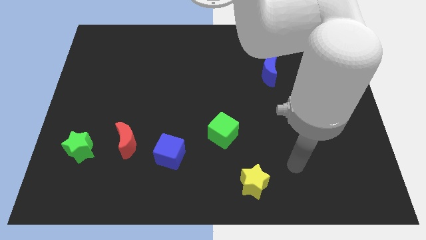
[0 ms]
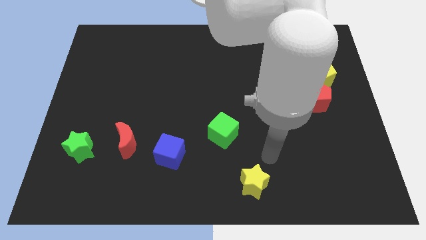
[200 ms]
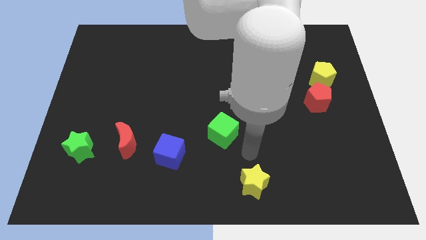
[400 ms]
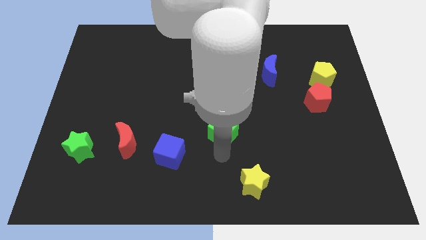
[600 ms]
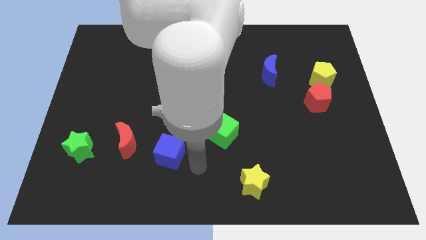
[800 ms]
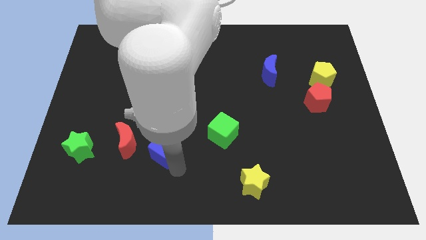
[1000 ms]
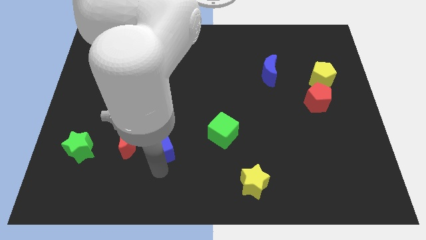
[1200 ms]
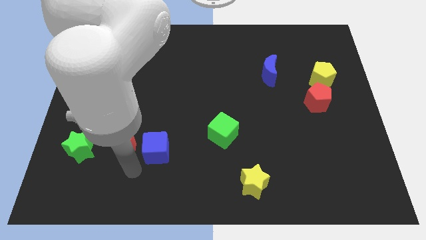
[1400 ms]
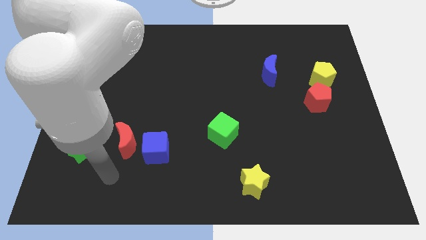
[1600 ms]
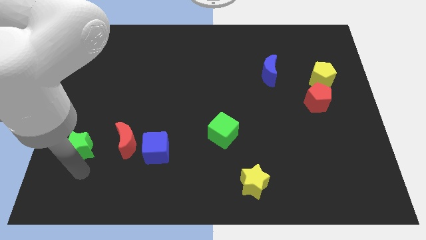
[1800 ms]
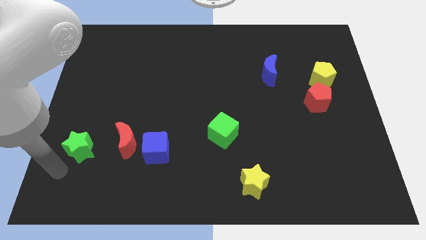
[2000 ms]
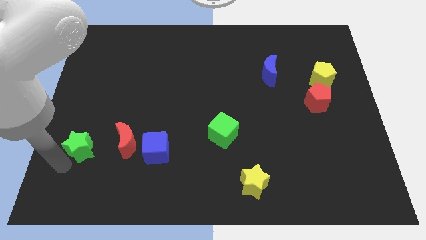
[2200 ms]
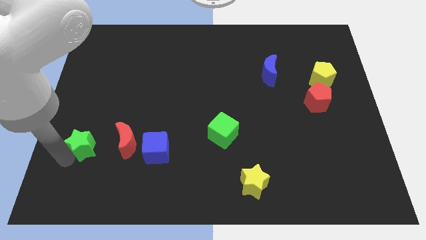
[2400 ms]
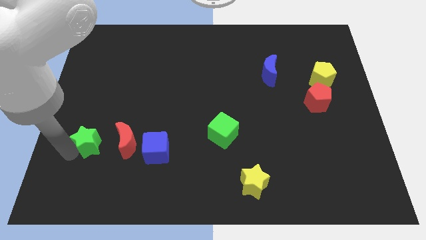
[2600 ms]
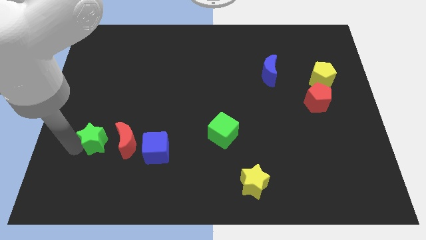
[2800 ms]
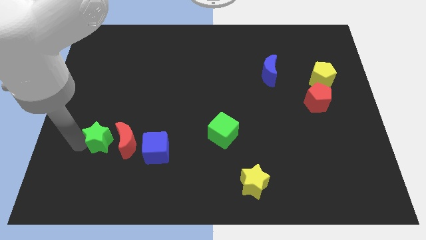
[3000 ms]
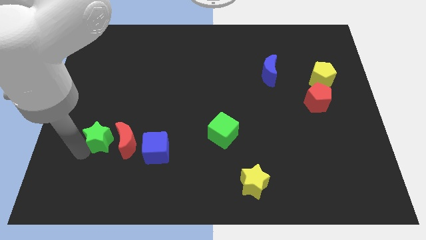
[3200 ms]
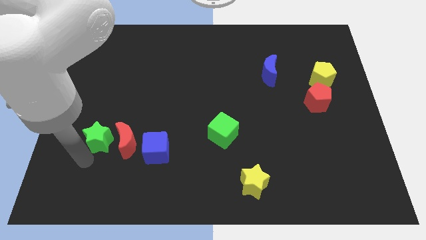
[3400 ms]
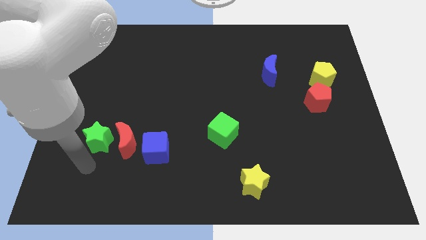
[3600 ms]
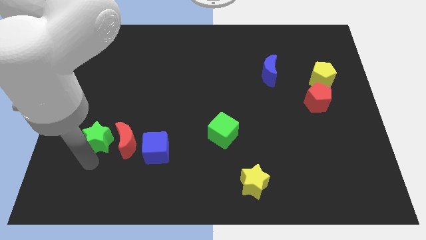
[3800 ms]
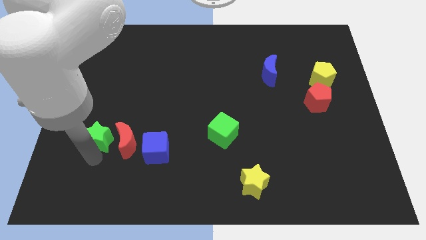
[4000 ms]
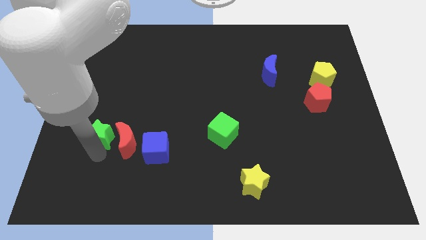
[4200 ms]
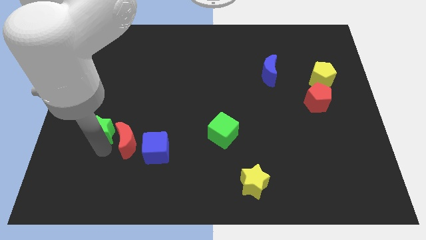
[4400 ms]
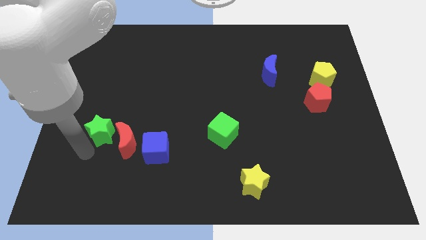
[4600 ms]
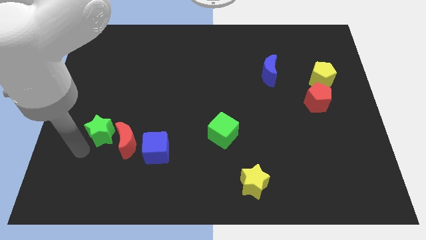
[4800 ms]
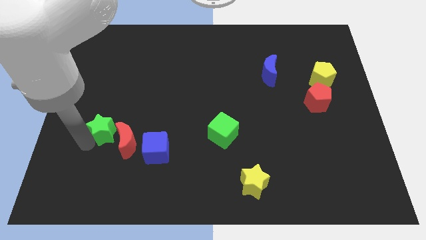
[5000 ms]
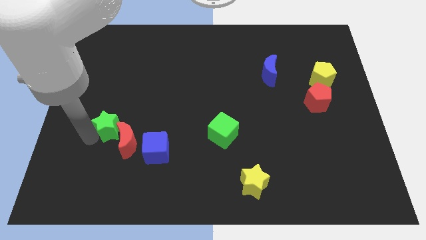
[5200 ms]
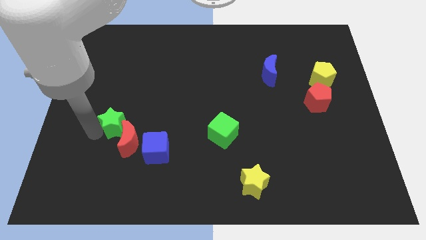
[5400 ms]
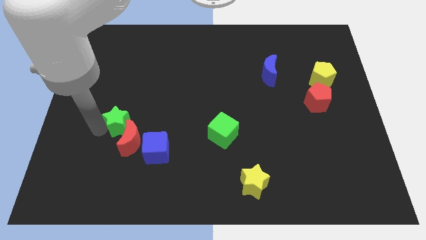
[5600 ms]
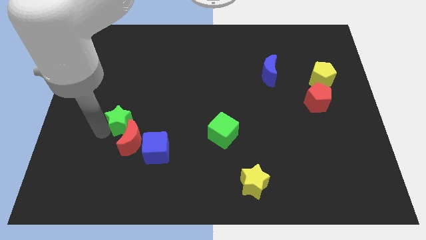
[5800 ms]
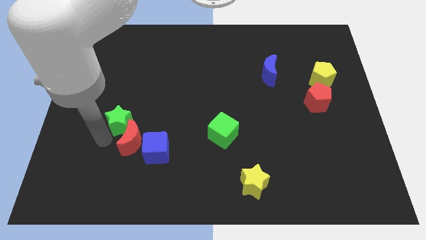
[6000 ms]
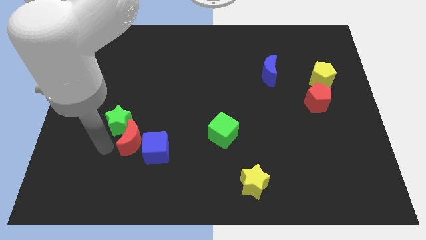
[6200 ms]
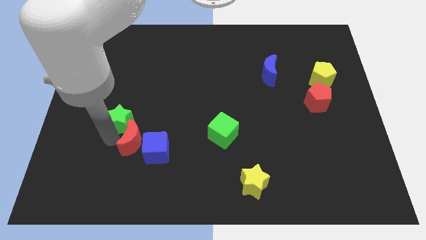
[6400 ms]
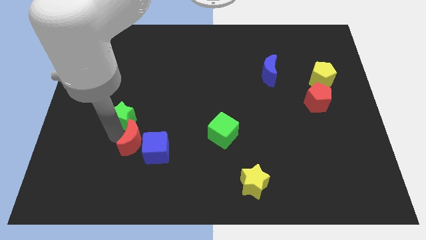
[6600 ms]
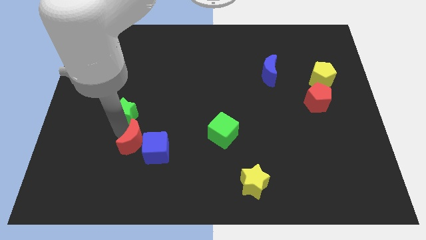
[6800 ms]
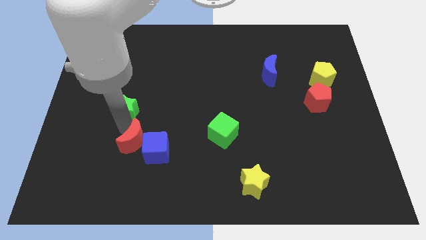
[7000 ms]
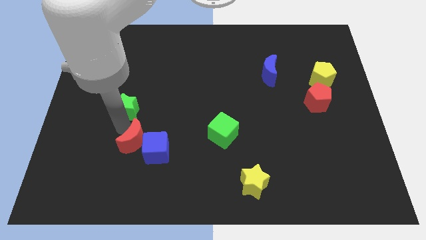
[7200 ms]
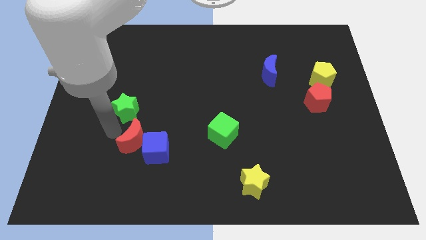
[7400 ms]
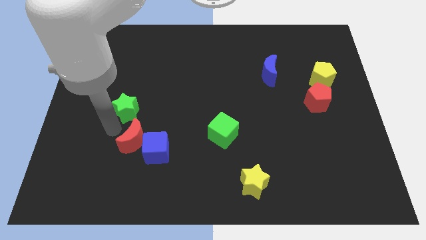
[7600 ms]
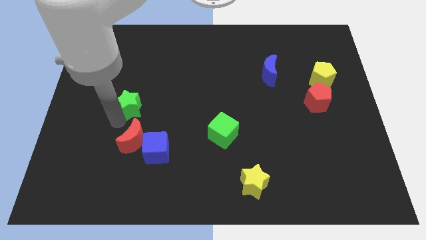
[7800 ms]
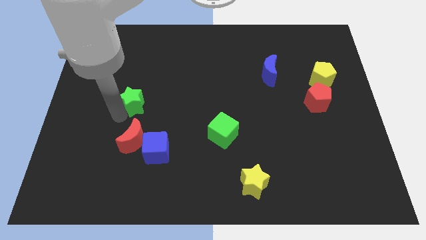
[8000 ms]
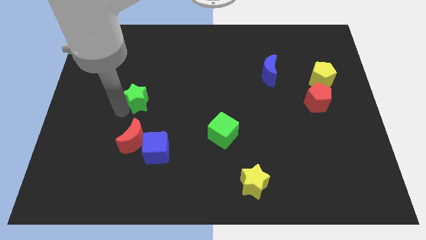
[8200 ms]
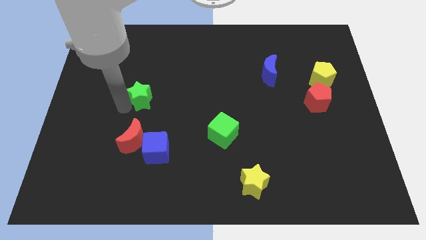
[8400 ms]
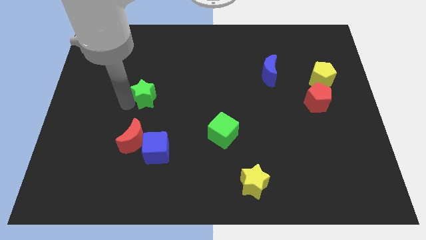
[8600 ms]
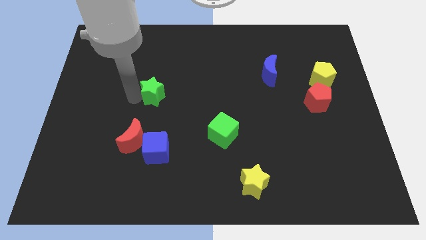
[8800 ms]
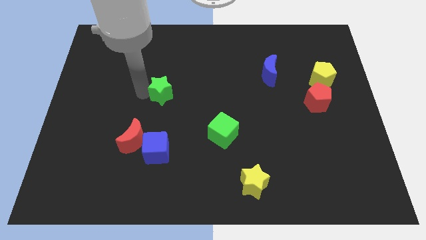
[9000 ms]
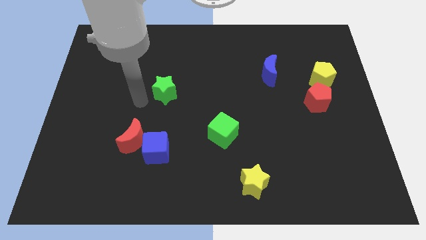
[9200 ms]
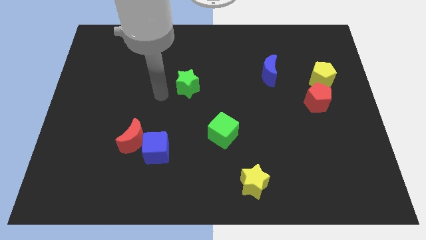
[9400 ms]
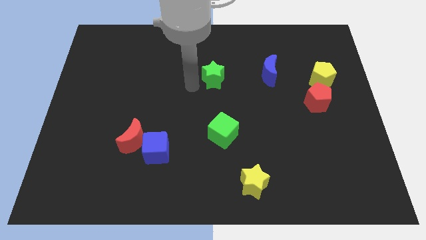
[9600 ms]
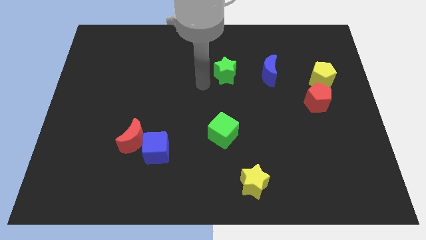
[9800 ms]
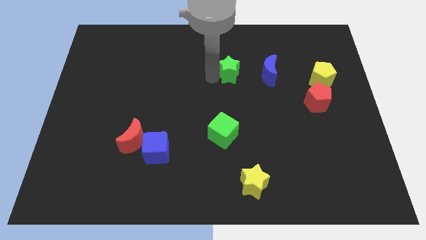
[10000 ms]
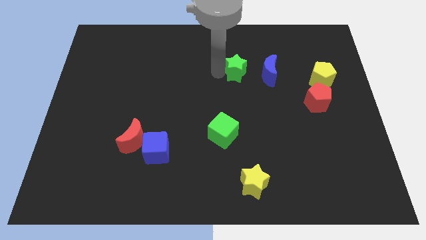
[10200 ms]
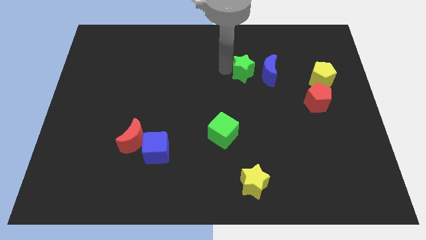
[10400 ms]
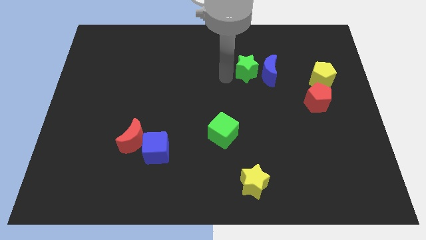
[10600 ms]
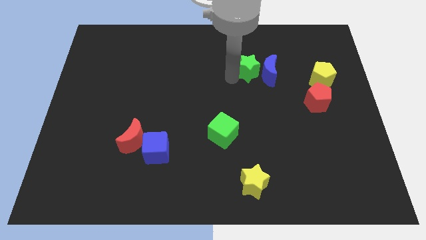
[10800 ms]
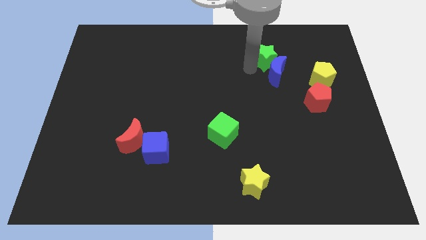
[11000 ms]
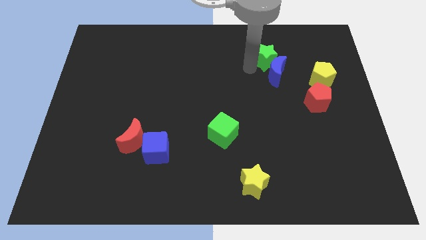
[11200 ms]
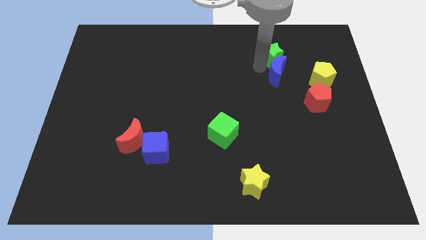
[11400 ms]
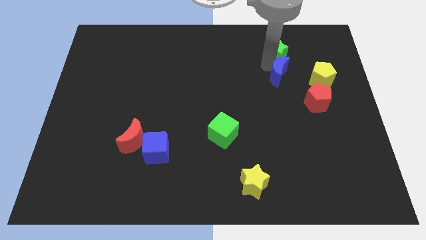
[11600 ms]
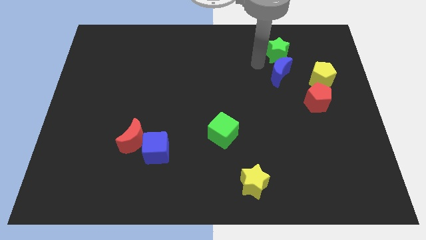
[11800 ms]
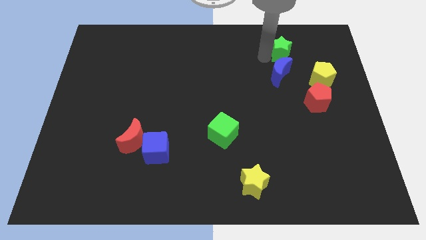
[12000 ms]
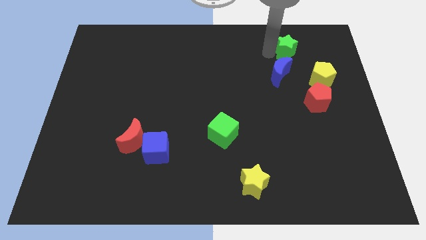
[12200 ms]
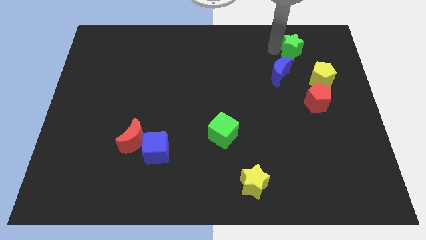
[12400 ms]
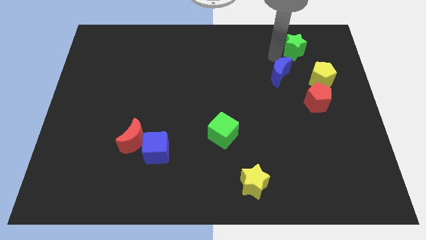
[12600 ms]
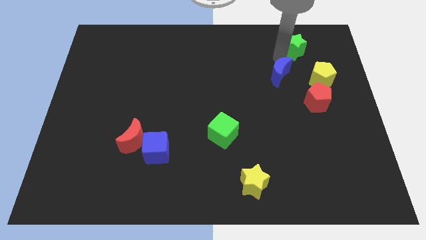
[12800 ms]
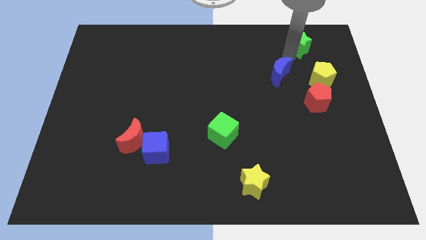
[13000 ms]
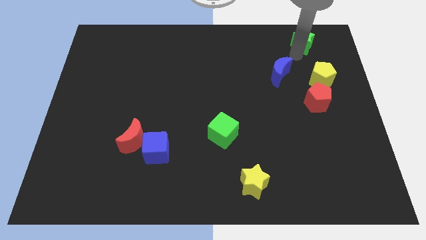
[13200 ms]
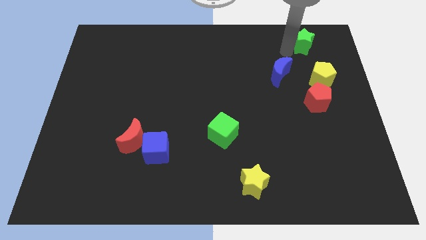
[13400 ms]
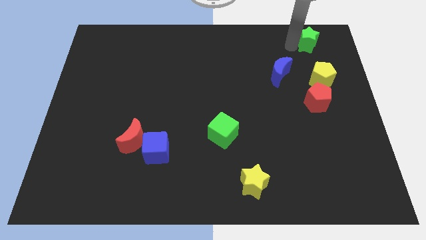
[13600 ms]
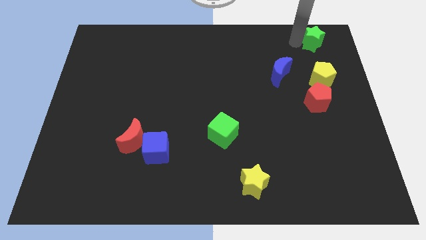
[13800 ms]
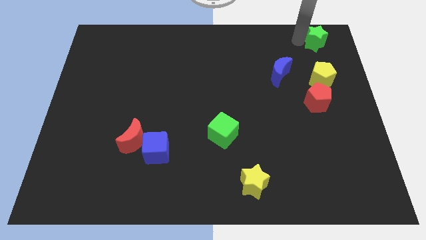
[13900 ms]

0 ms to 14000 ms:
move the green star to the top right
